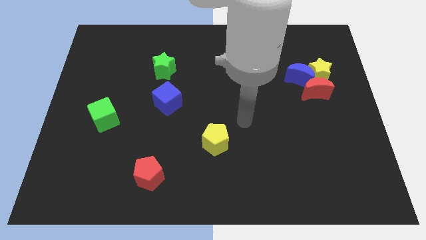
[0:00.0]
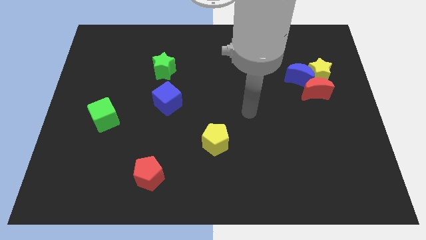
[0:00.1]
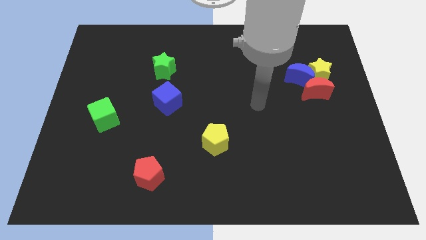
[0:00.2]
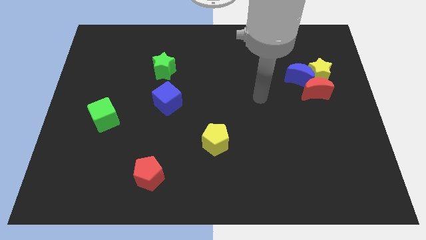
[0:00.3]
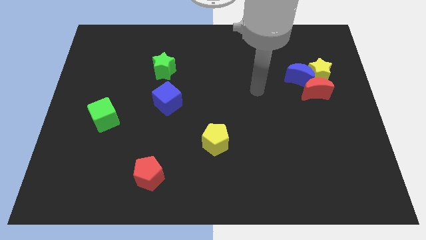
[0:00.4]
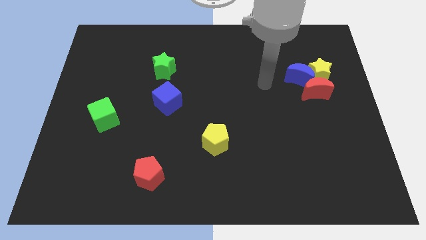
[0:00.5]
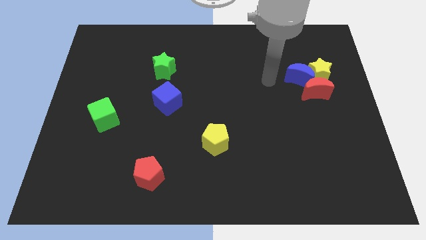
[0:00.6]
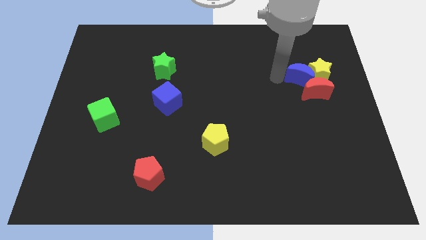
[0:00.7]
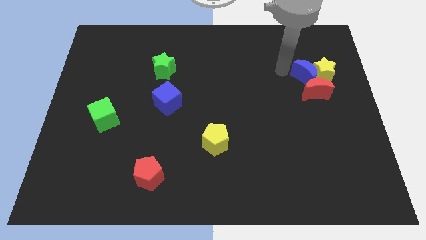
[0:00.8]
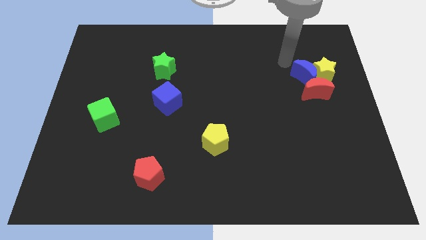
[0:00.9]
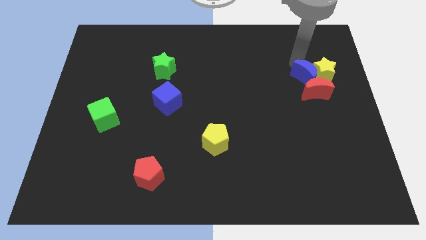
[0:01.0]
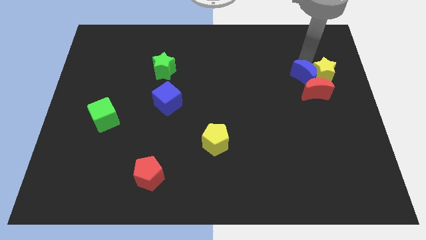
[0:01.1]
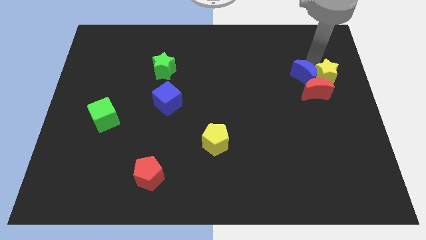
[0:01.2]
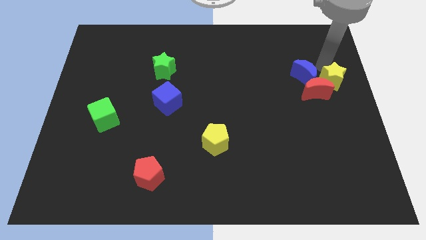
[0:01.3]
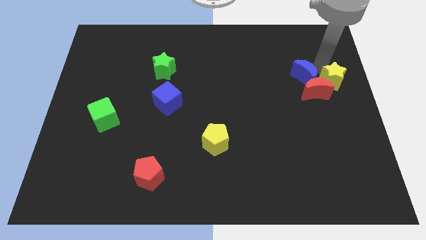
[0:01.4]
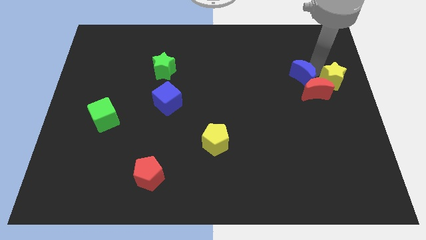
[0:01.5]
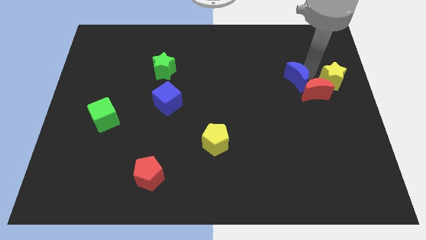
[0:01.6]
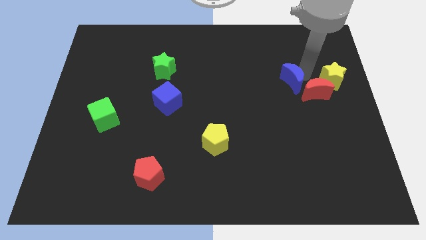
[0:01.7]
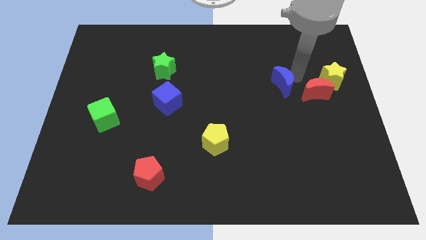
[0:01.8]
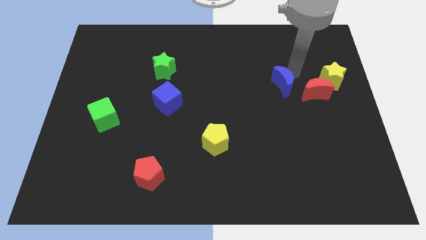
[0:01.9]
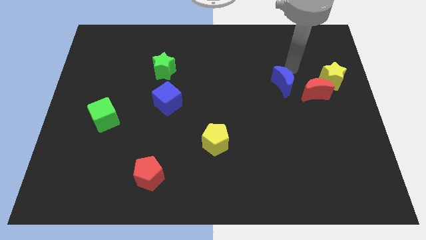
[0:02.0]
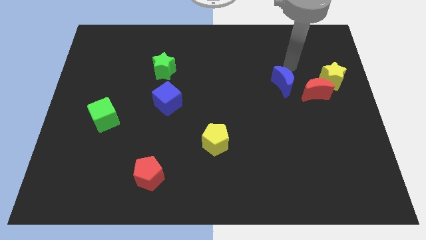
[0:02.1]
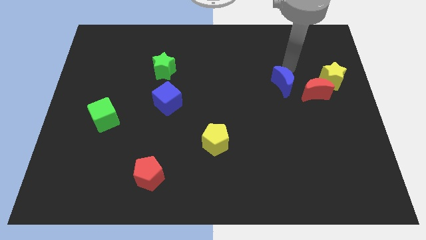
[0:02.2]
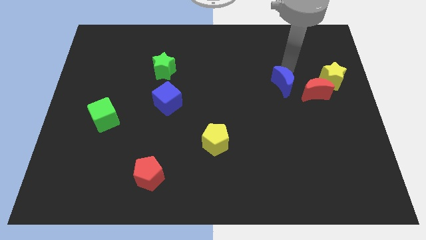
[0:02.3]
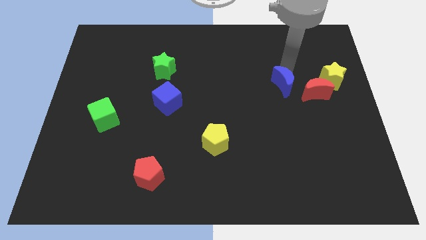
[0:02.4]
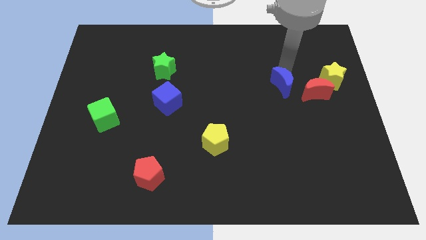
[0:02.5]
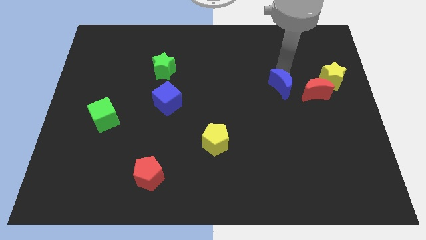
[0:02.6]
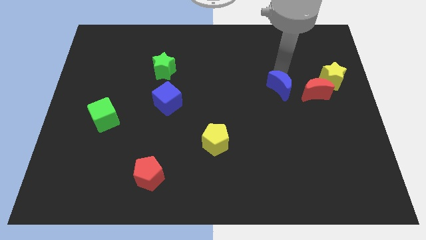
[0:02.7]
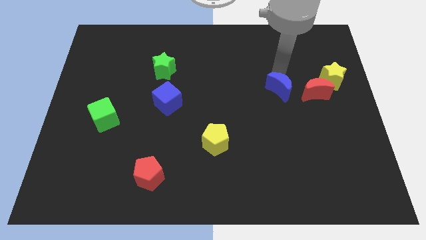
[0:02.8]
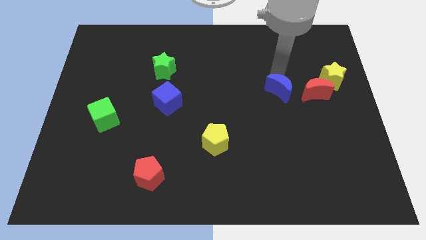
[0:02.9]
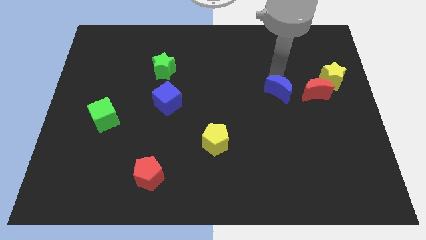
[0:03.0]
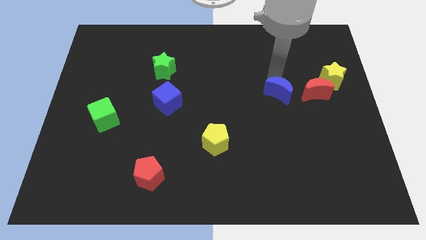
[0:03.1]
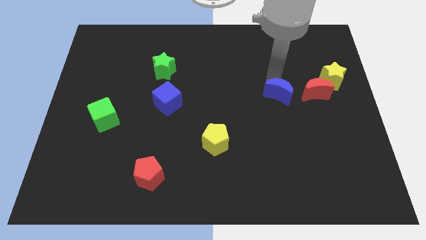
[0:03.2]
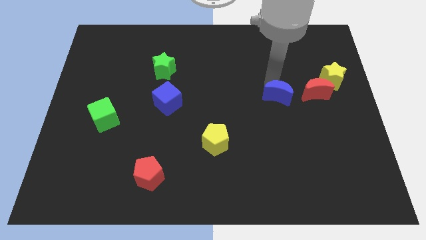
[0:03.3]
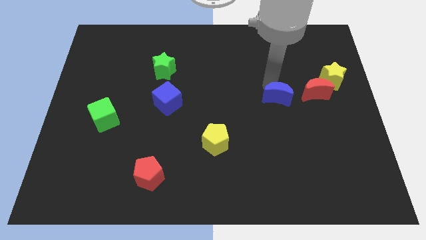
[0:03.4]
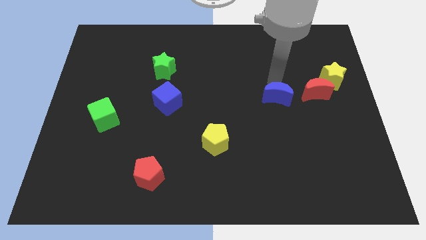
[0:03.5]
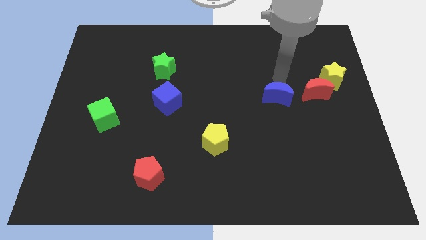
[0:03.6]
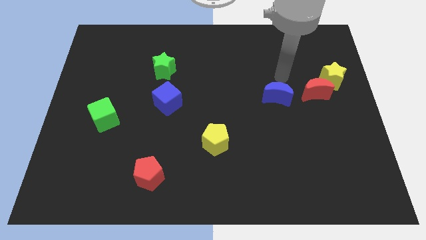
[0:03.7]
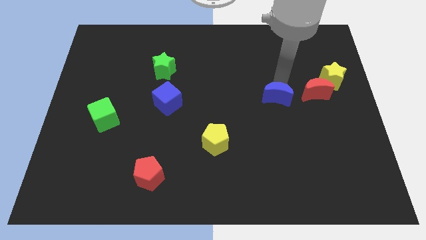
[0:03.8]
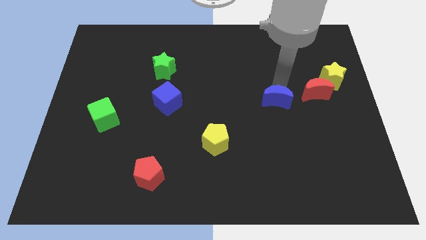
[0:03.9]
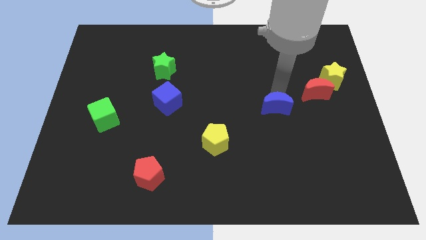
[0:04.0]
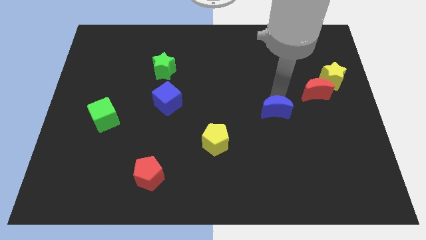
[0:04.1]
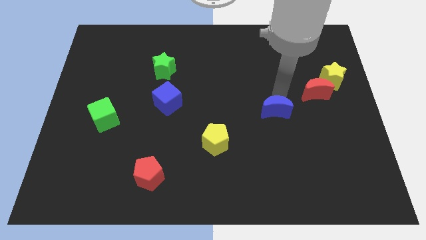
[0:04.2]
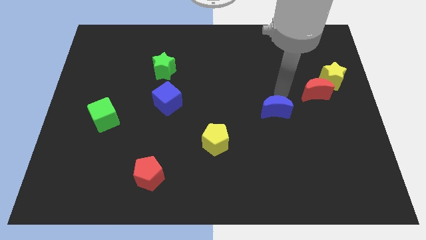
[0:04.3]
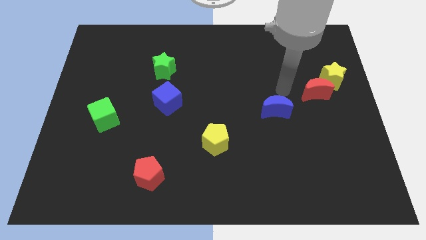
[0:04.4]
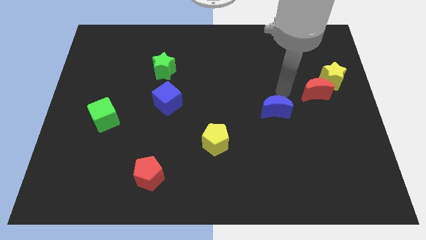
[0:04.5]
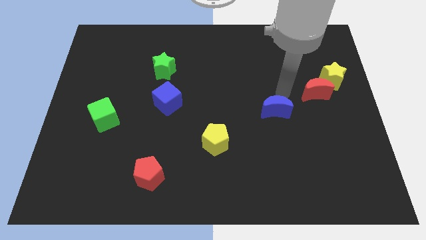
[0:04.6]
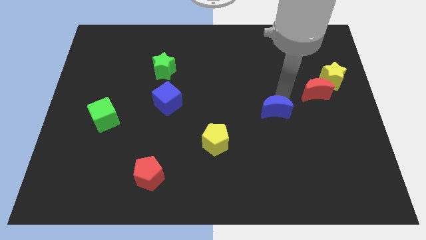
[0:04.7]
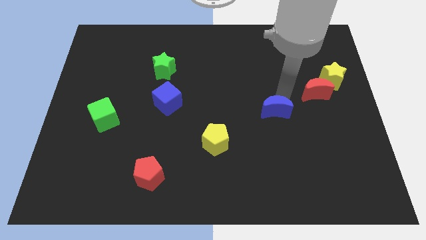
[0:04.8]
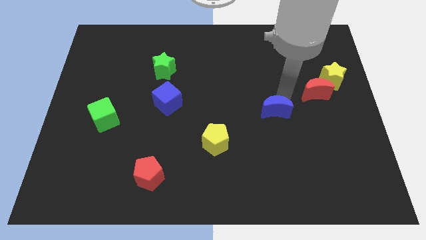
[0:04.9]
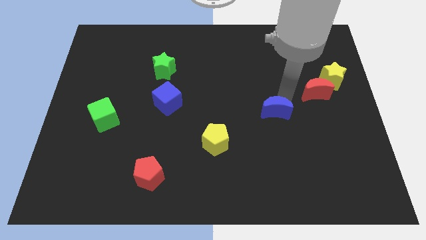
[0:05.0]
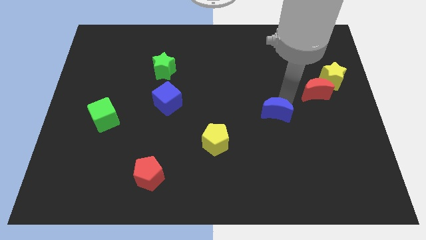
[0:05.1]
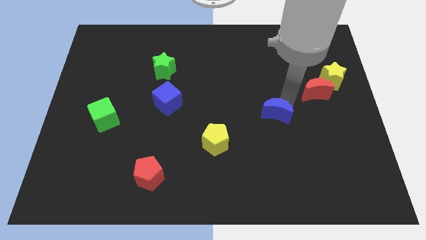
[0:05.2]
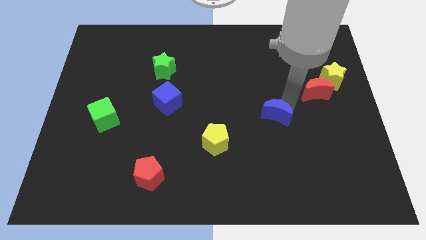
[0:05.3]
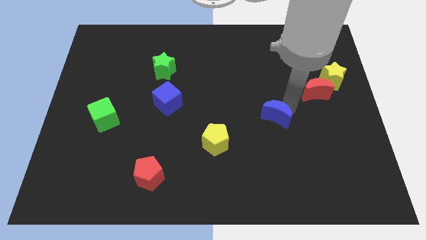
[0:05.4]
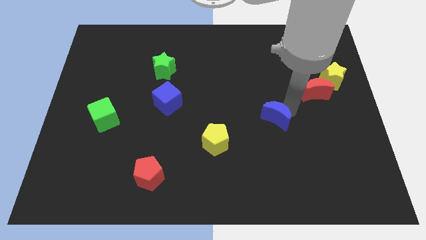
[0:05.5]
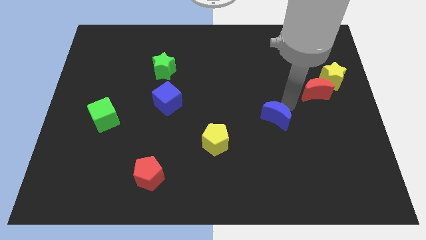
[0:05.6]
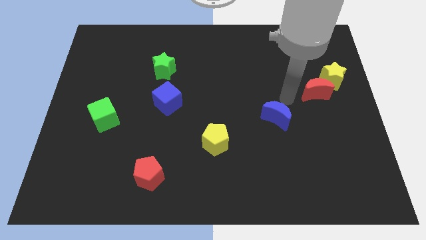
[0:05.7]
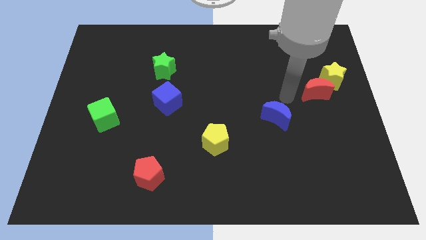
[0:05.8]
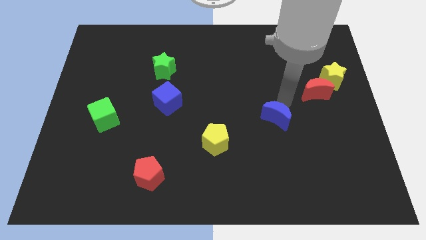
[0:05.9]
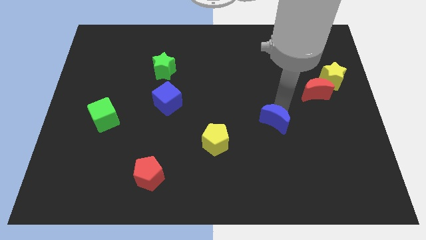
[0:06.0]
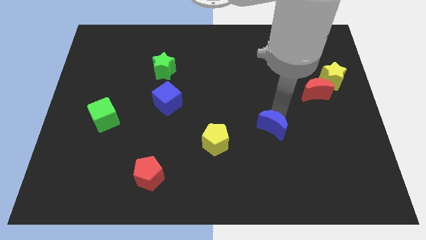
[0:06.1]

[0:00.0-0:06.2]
move the blue moon right of the yellow pentagon
